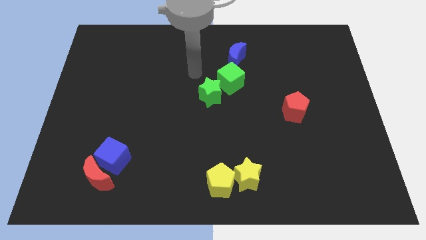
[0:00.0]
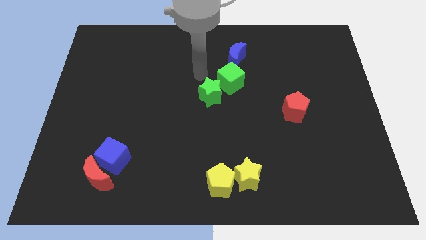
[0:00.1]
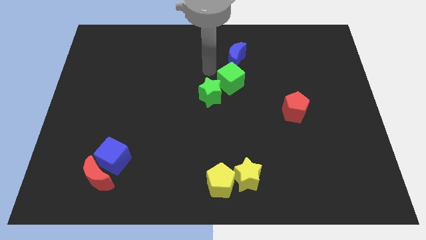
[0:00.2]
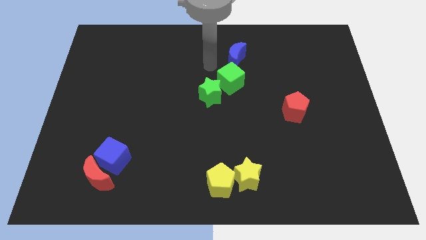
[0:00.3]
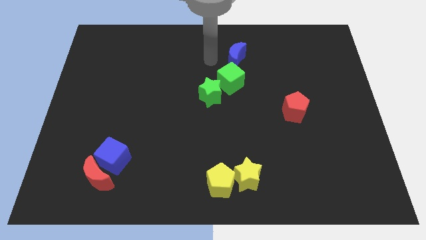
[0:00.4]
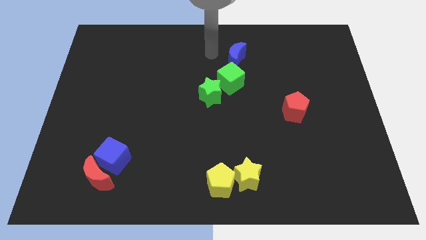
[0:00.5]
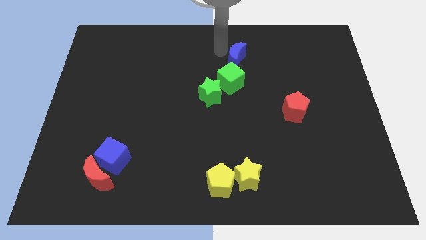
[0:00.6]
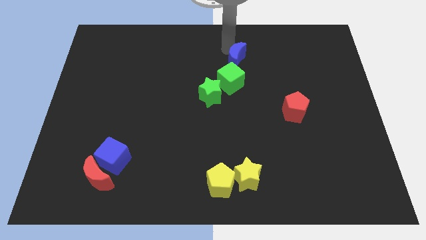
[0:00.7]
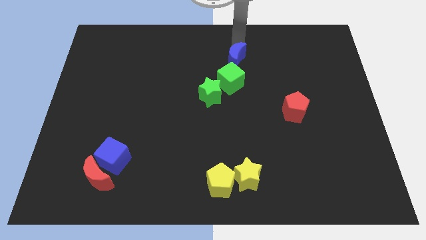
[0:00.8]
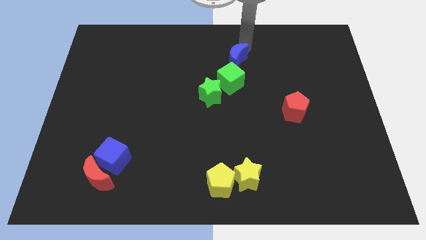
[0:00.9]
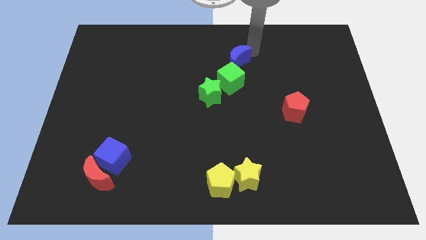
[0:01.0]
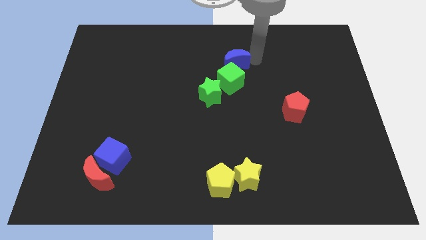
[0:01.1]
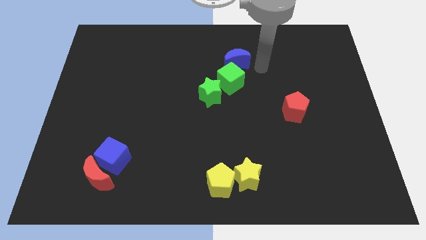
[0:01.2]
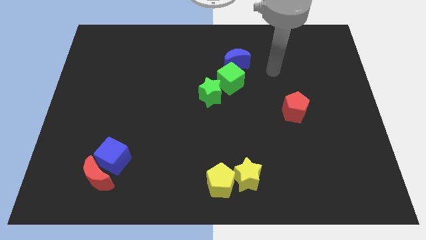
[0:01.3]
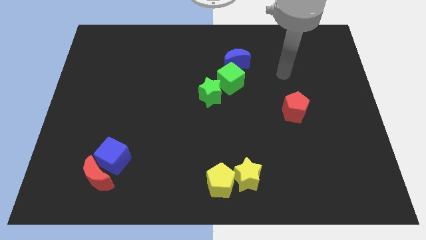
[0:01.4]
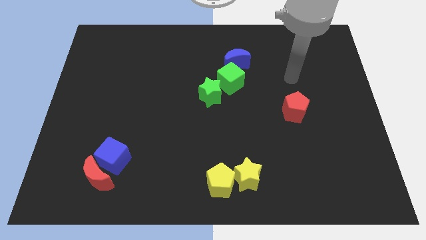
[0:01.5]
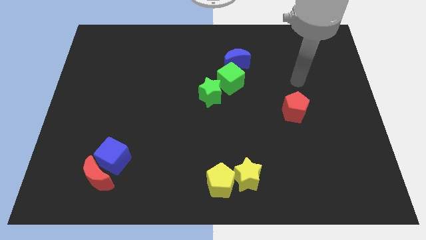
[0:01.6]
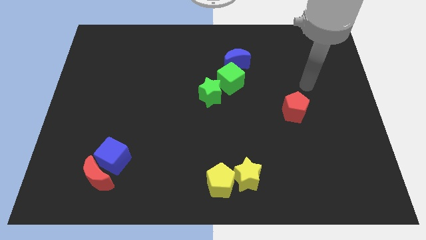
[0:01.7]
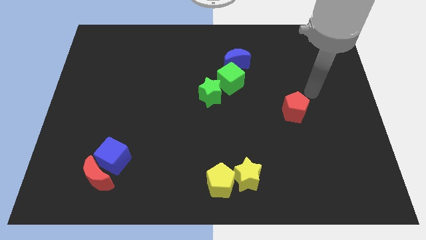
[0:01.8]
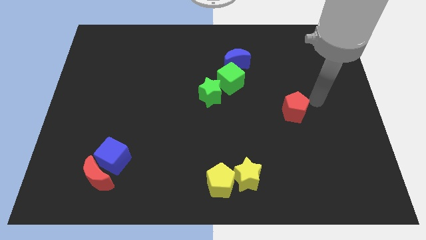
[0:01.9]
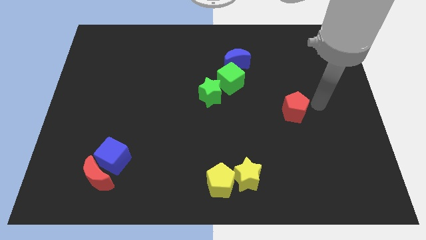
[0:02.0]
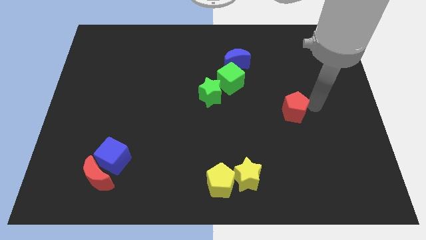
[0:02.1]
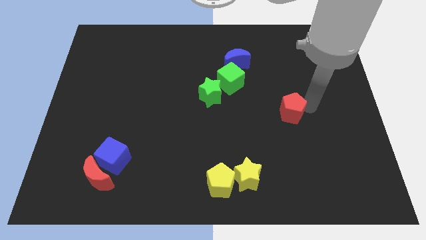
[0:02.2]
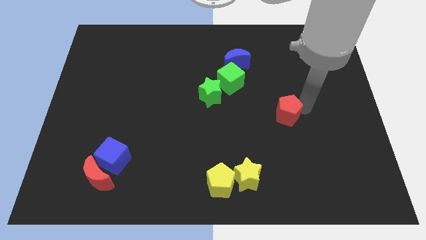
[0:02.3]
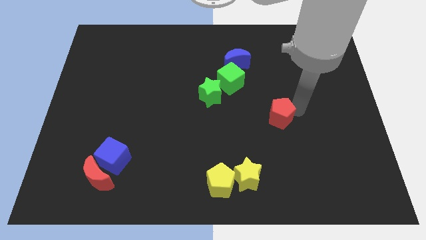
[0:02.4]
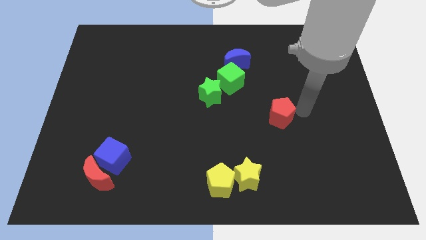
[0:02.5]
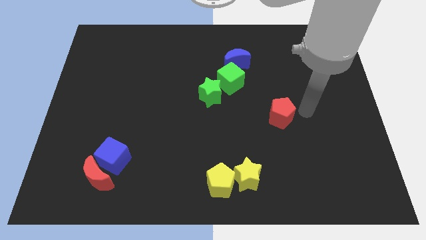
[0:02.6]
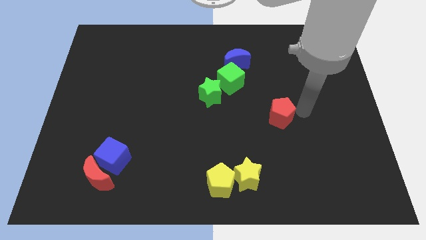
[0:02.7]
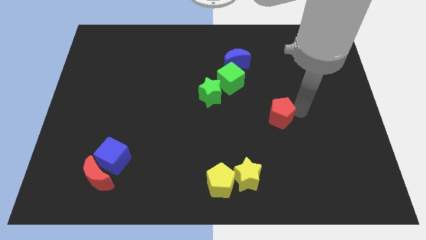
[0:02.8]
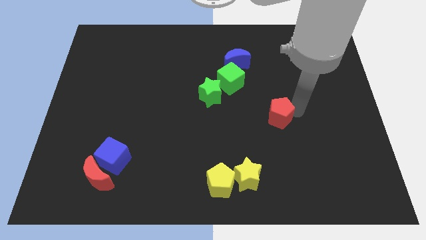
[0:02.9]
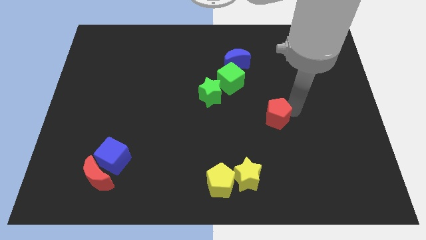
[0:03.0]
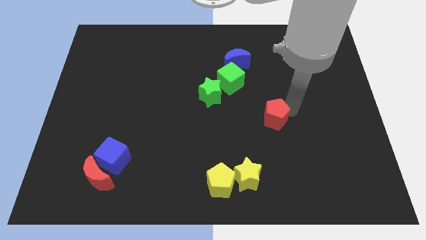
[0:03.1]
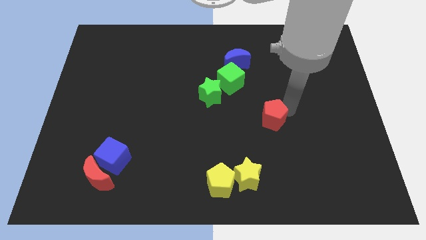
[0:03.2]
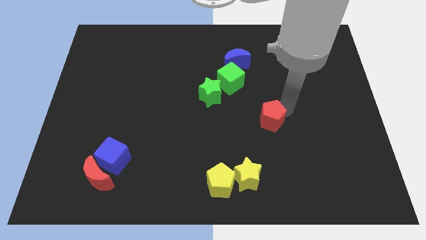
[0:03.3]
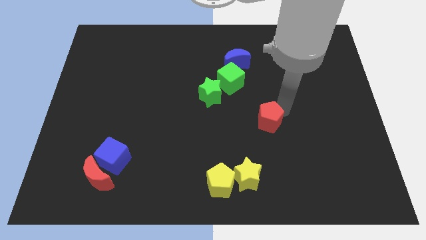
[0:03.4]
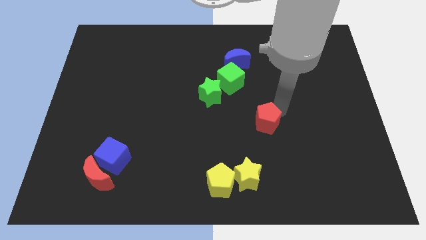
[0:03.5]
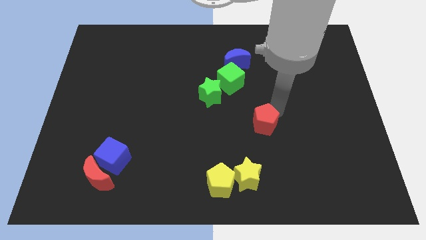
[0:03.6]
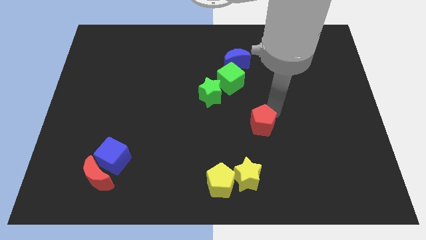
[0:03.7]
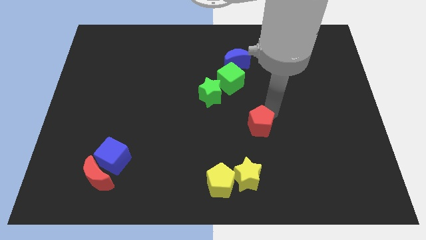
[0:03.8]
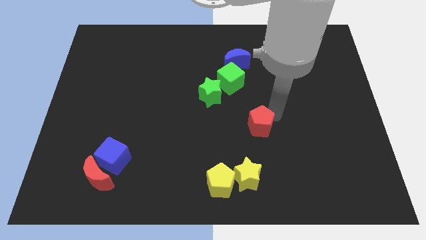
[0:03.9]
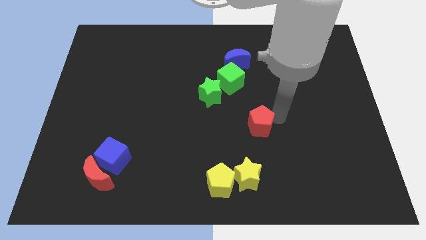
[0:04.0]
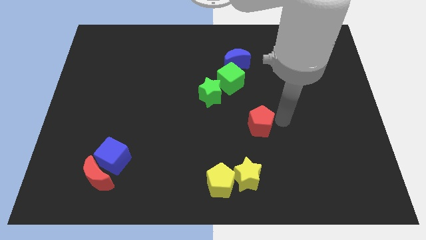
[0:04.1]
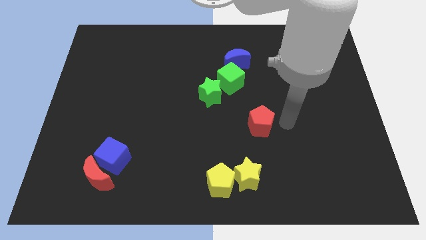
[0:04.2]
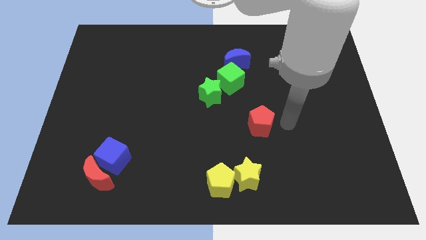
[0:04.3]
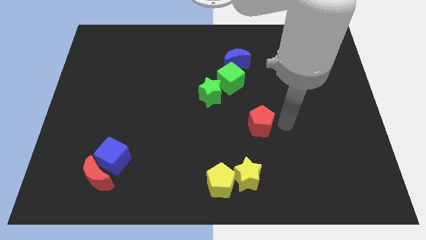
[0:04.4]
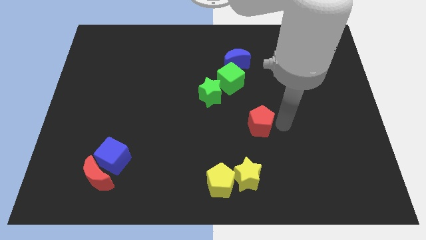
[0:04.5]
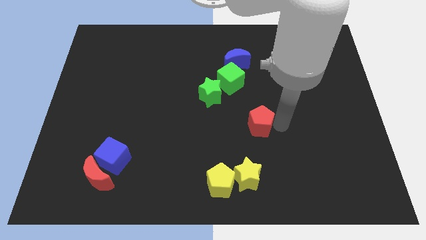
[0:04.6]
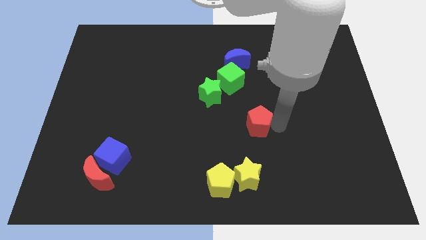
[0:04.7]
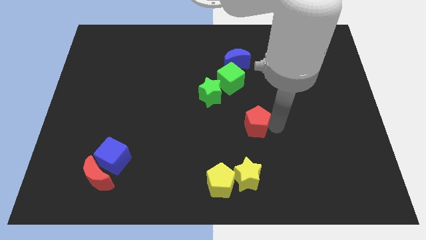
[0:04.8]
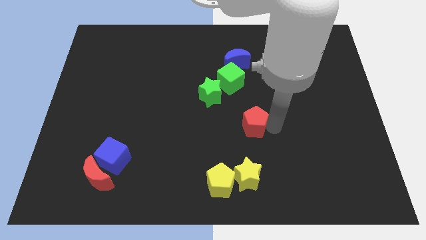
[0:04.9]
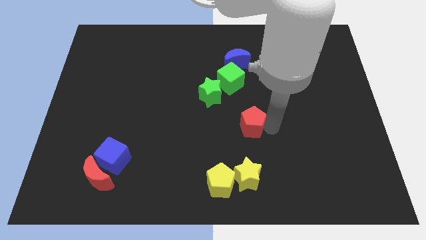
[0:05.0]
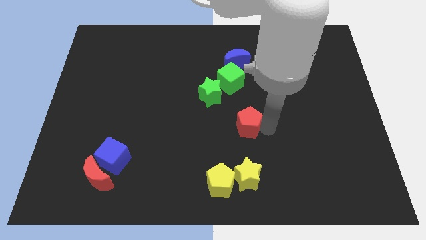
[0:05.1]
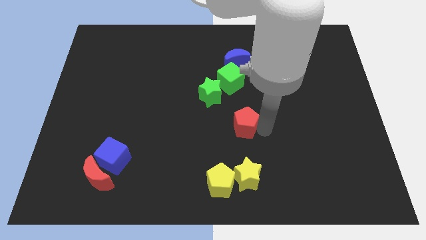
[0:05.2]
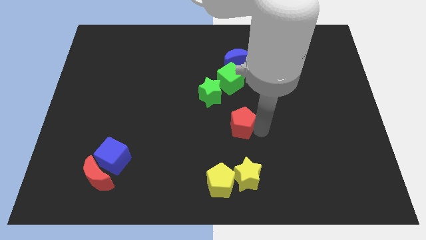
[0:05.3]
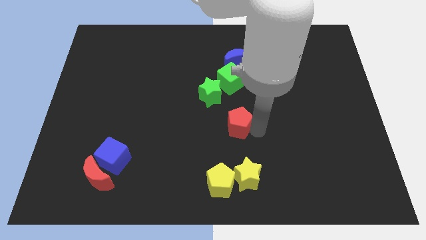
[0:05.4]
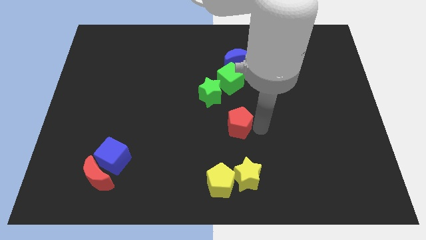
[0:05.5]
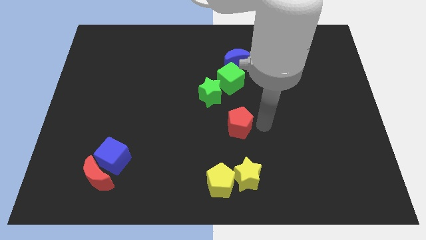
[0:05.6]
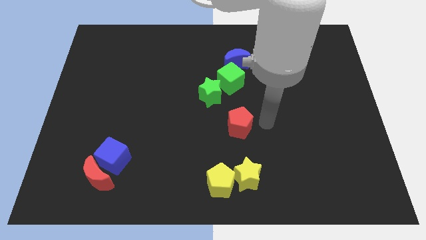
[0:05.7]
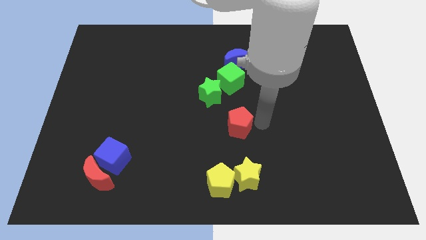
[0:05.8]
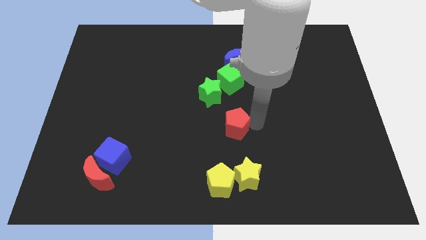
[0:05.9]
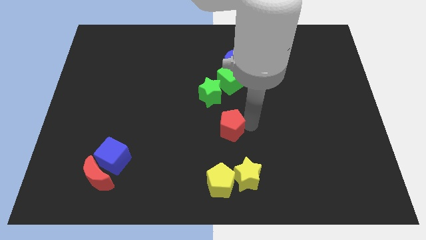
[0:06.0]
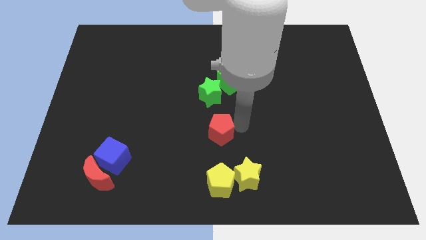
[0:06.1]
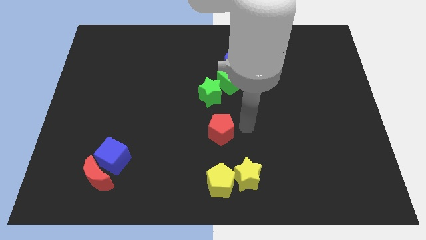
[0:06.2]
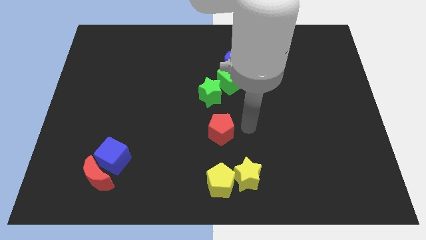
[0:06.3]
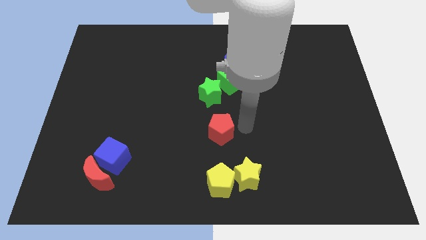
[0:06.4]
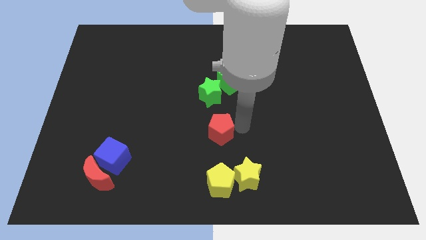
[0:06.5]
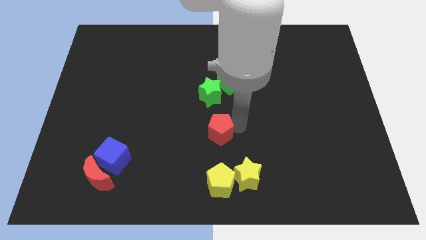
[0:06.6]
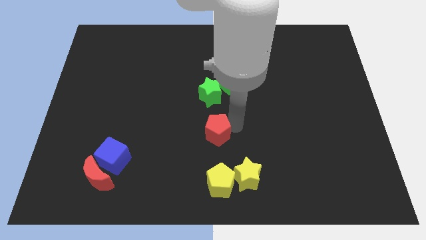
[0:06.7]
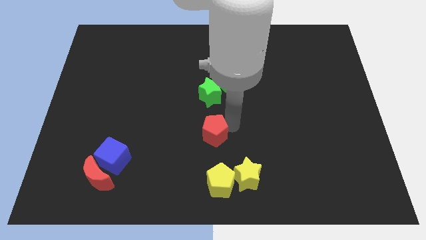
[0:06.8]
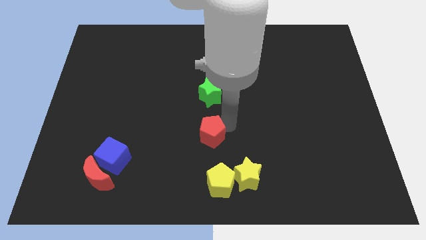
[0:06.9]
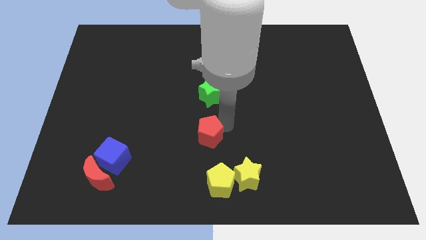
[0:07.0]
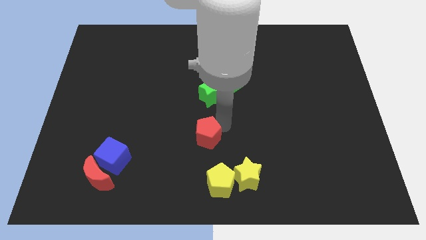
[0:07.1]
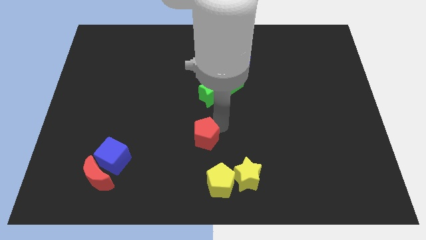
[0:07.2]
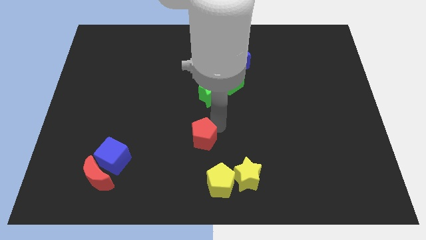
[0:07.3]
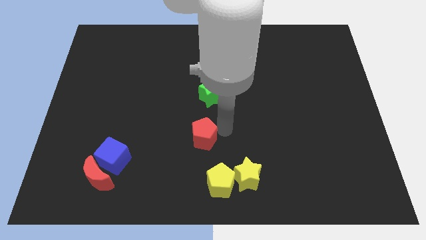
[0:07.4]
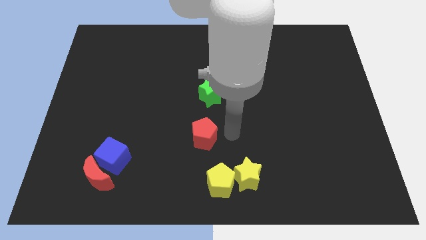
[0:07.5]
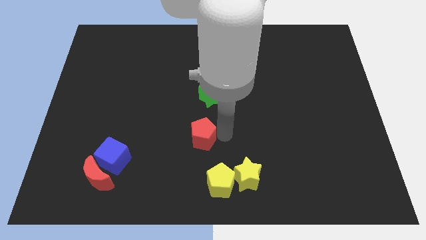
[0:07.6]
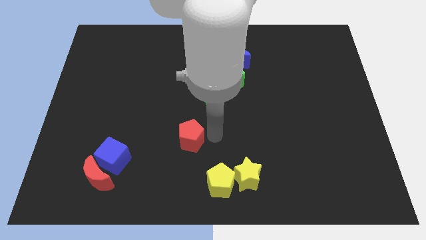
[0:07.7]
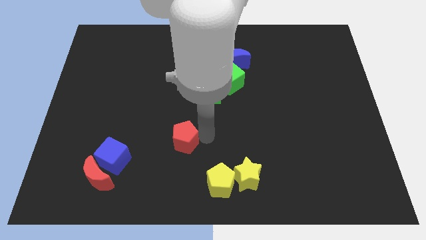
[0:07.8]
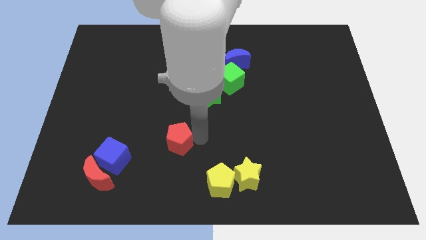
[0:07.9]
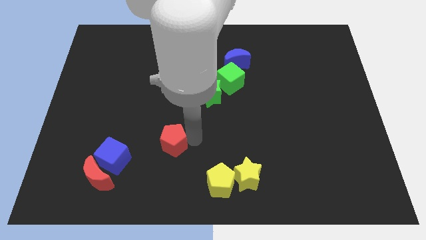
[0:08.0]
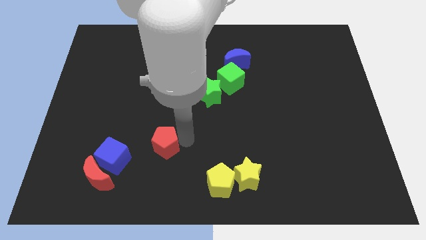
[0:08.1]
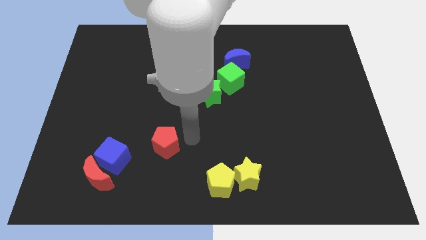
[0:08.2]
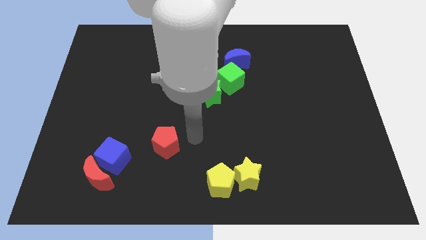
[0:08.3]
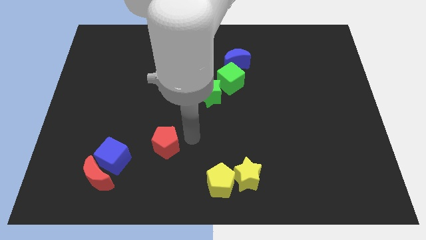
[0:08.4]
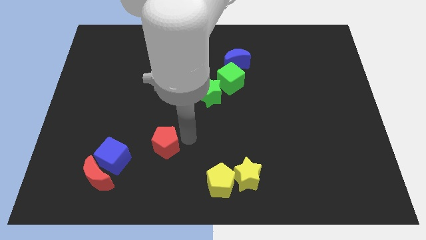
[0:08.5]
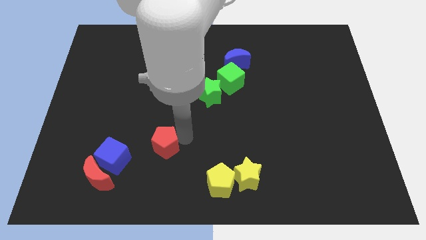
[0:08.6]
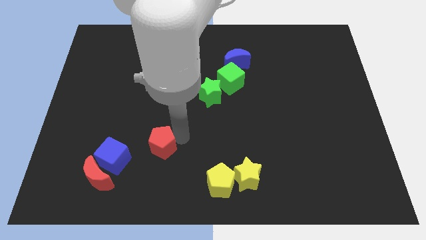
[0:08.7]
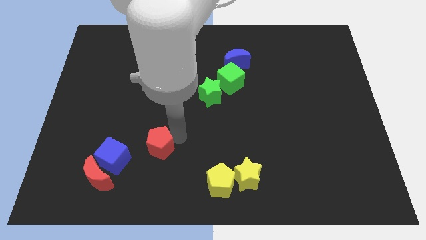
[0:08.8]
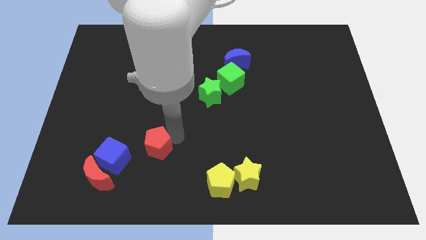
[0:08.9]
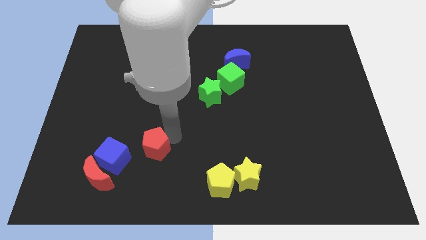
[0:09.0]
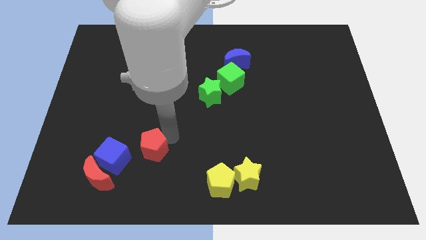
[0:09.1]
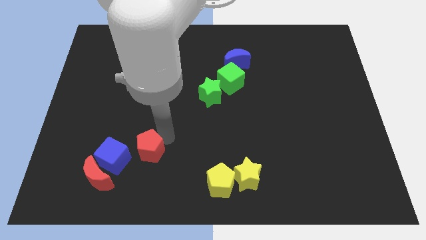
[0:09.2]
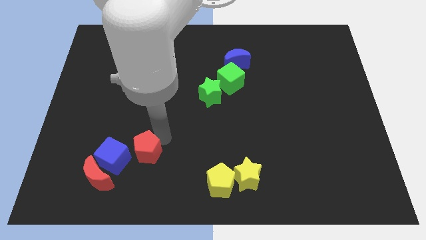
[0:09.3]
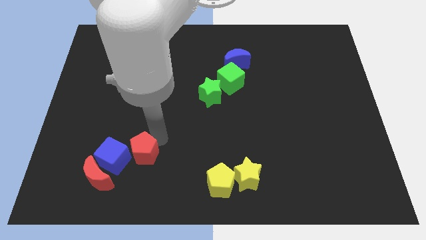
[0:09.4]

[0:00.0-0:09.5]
slide the red pentagon to the blue cube
